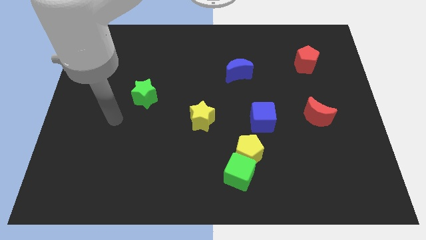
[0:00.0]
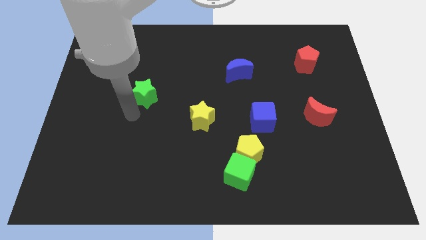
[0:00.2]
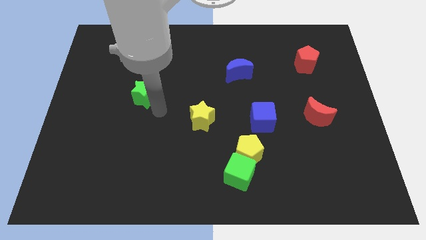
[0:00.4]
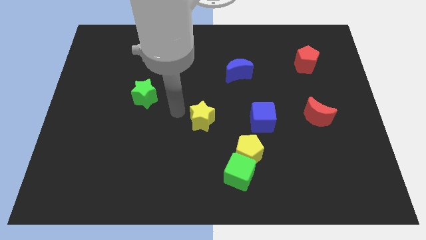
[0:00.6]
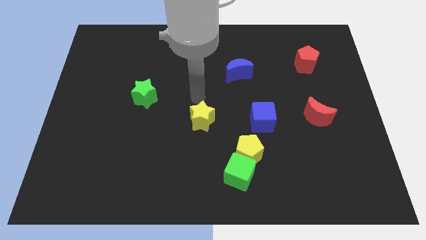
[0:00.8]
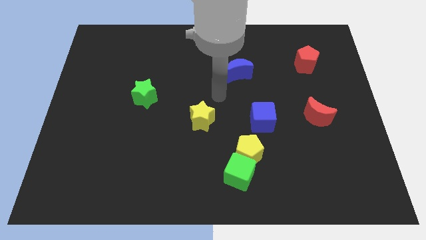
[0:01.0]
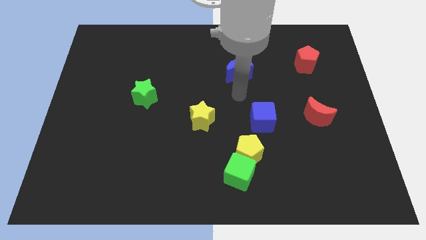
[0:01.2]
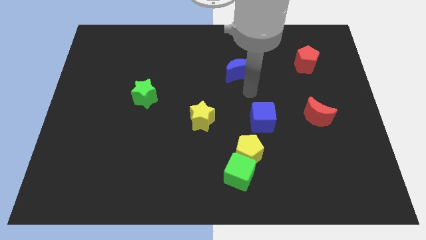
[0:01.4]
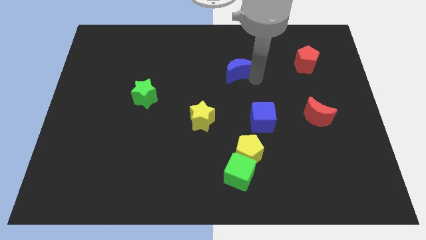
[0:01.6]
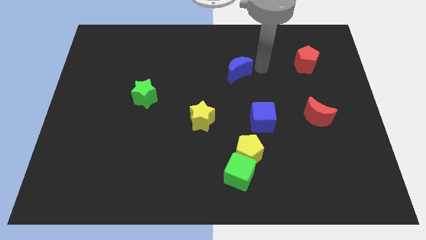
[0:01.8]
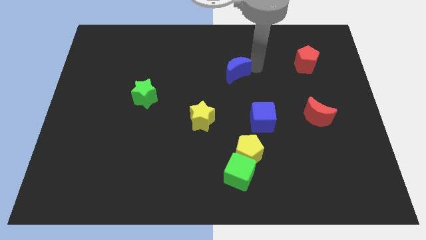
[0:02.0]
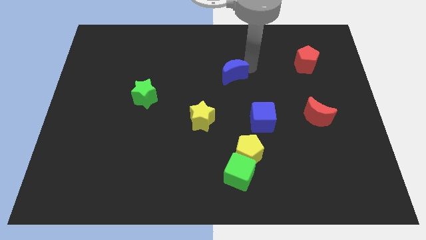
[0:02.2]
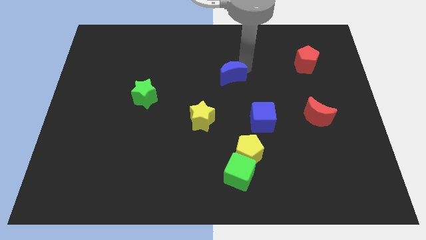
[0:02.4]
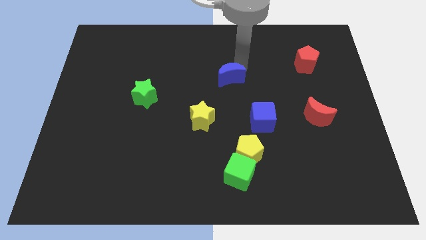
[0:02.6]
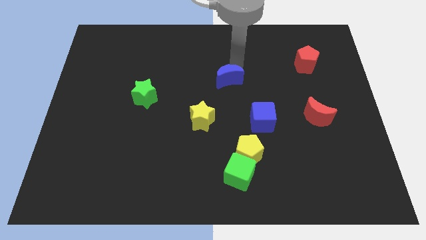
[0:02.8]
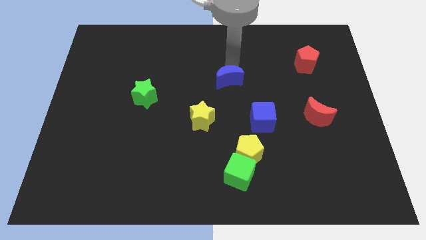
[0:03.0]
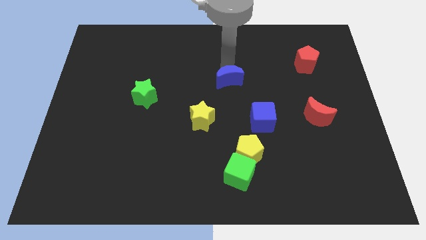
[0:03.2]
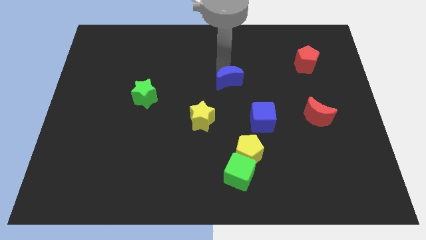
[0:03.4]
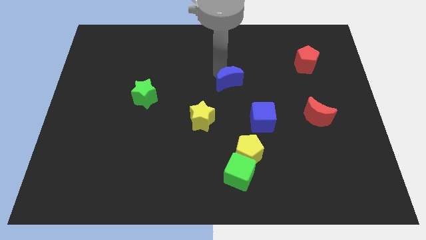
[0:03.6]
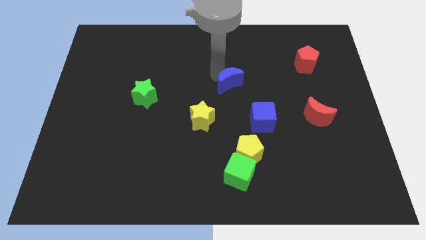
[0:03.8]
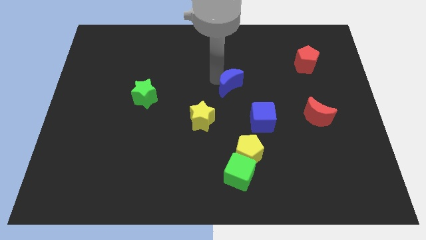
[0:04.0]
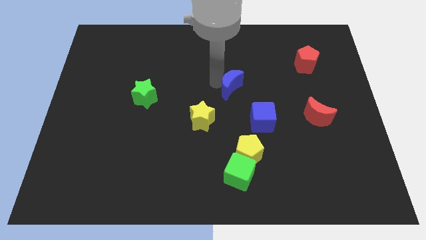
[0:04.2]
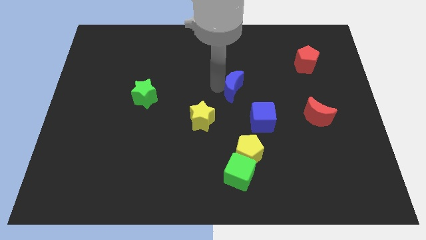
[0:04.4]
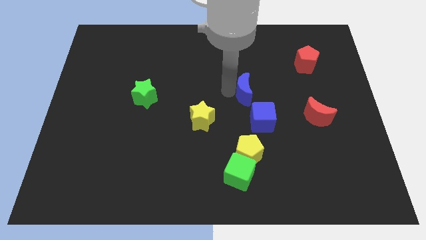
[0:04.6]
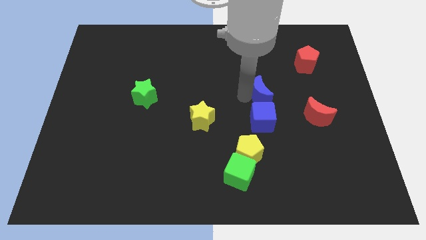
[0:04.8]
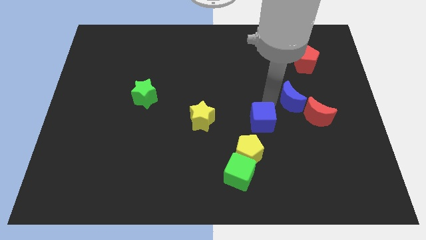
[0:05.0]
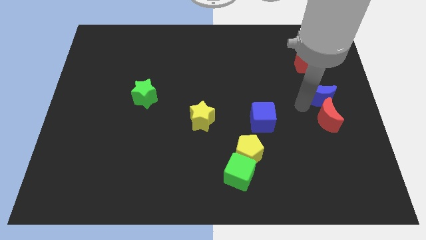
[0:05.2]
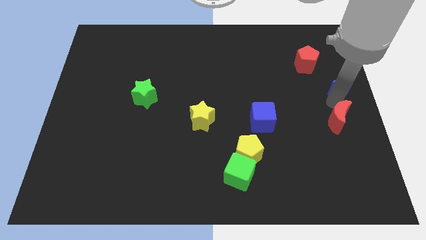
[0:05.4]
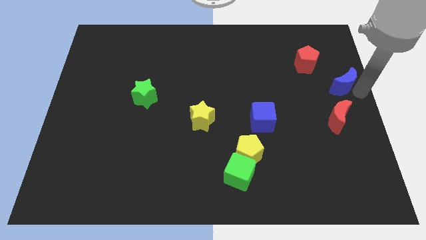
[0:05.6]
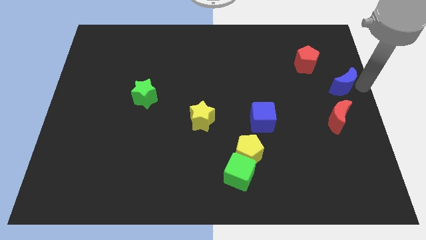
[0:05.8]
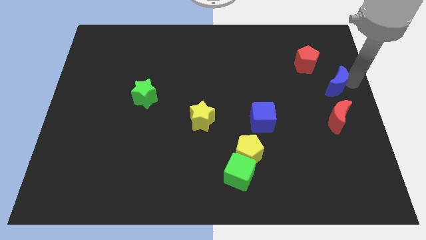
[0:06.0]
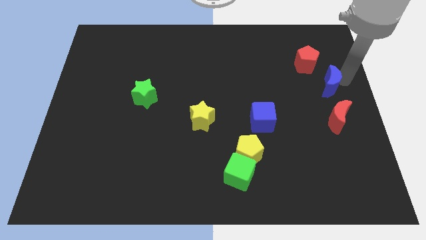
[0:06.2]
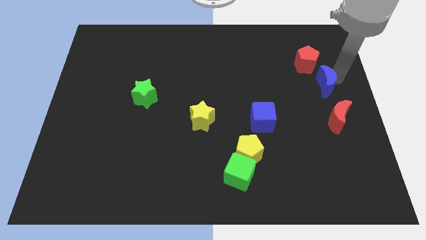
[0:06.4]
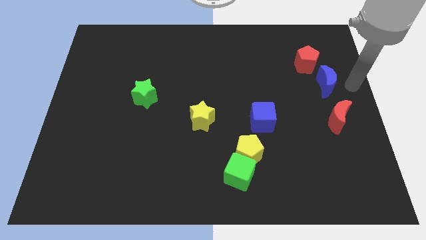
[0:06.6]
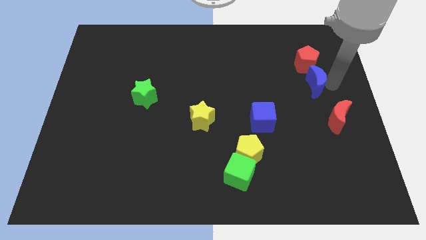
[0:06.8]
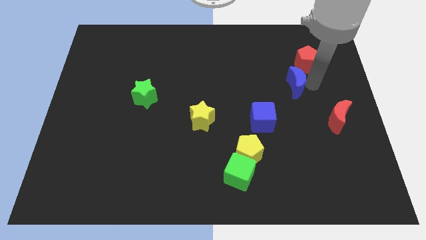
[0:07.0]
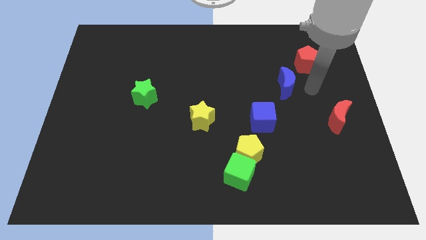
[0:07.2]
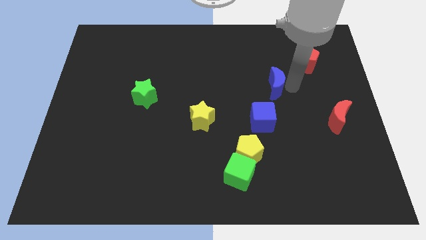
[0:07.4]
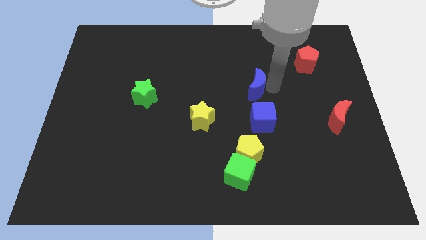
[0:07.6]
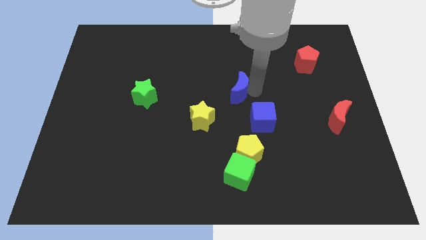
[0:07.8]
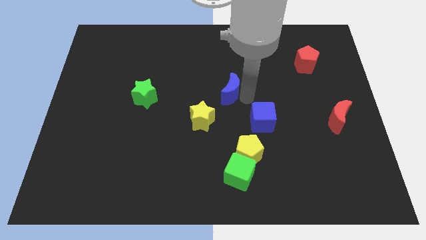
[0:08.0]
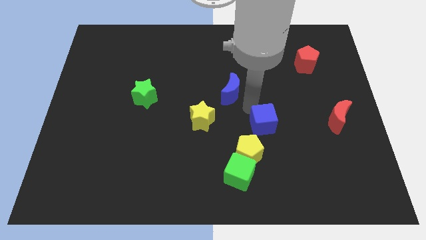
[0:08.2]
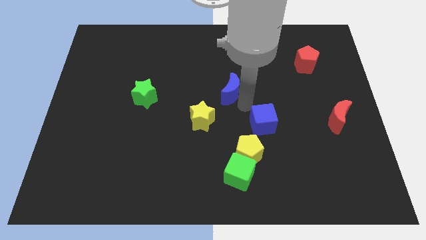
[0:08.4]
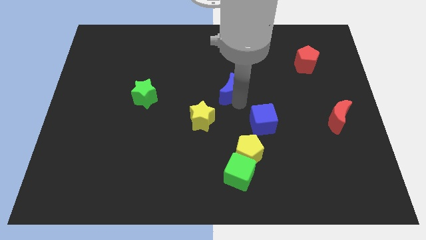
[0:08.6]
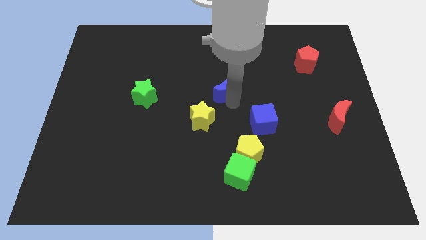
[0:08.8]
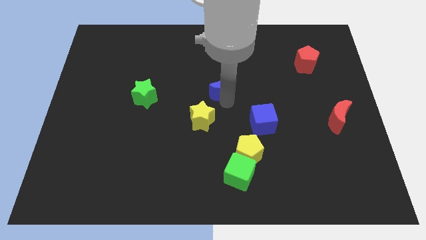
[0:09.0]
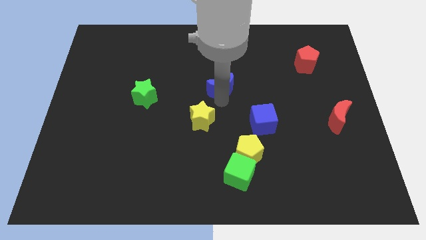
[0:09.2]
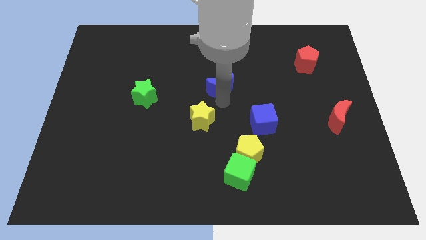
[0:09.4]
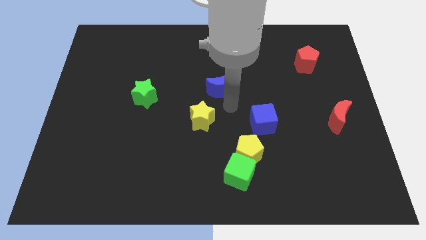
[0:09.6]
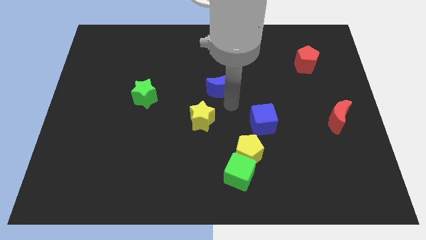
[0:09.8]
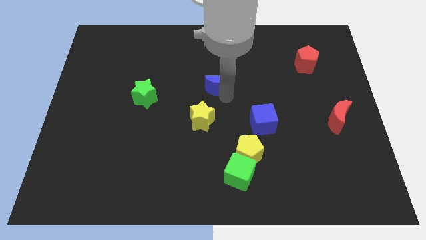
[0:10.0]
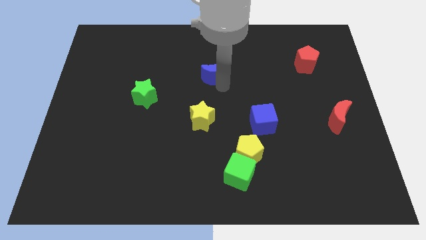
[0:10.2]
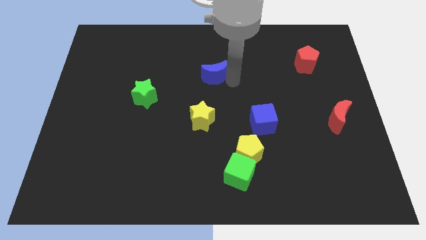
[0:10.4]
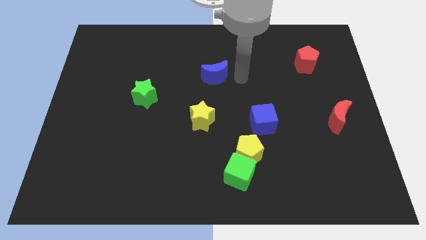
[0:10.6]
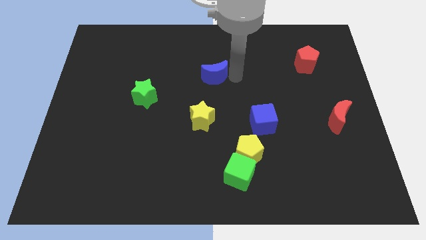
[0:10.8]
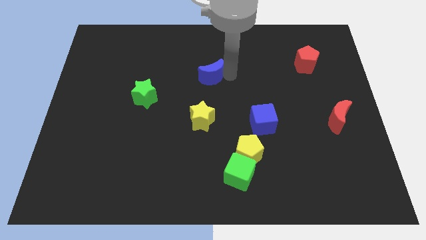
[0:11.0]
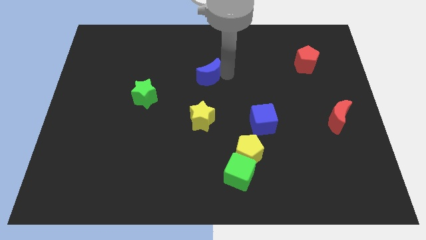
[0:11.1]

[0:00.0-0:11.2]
push the blue moon to the left a bit

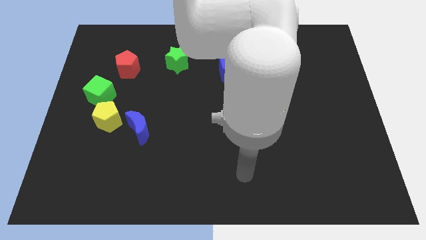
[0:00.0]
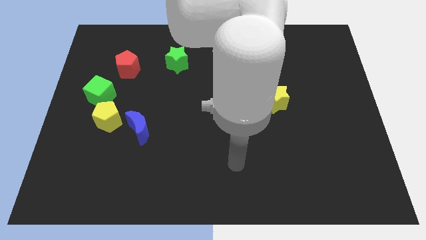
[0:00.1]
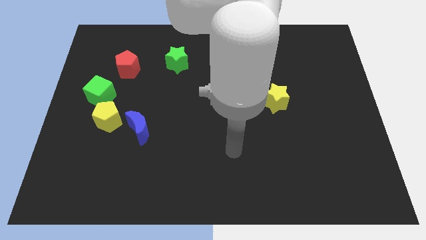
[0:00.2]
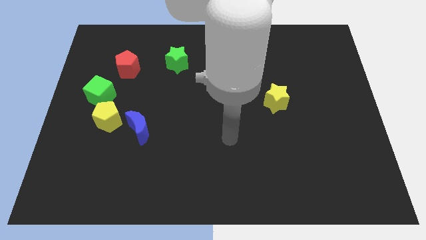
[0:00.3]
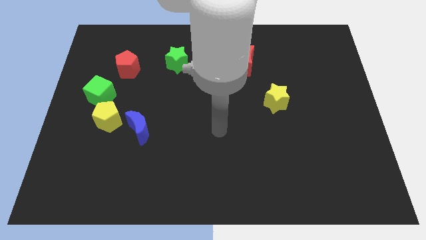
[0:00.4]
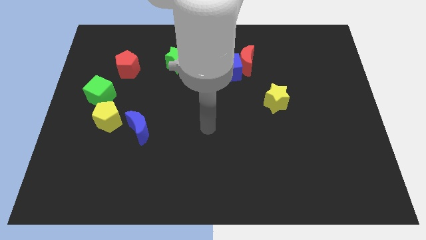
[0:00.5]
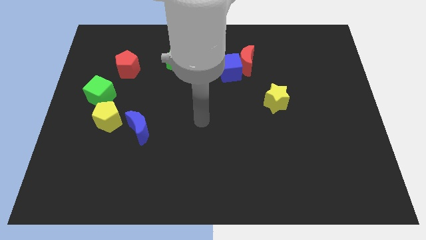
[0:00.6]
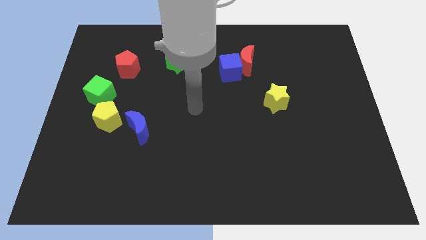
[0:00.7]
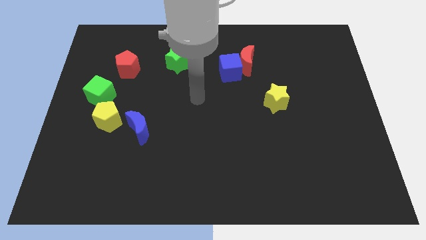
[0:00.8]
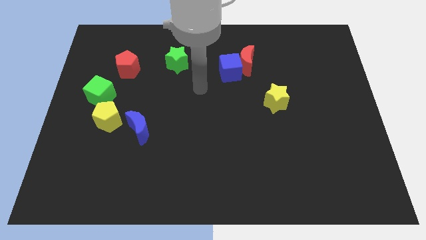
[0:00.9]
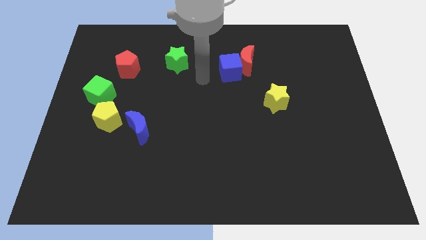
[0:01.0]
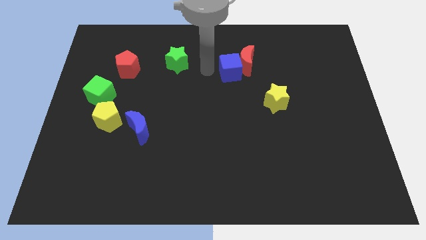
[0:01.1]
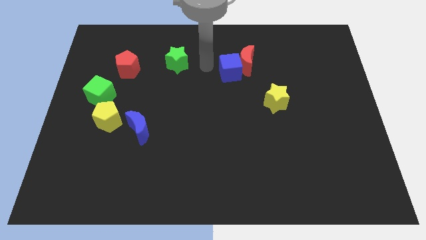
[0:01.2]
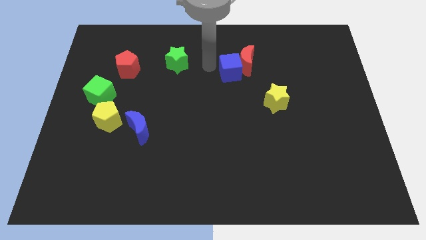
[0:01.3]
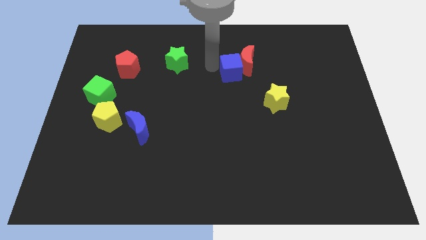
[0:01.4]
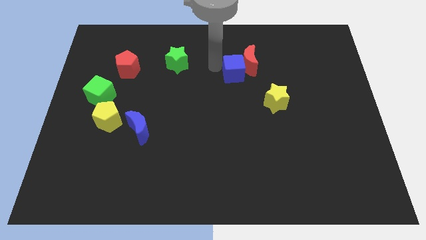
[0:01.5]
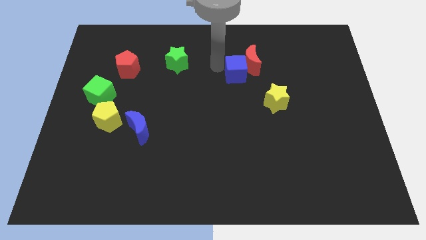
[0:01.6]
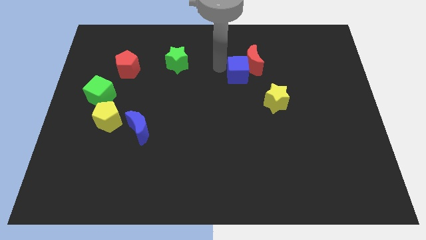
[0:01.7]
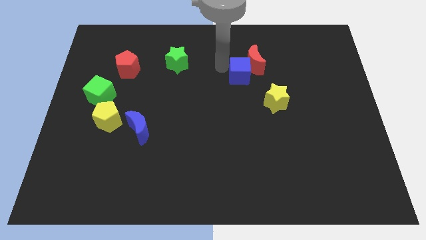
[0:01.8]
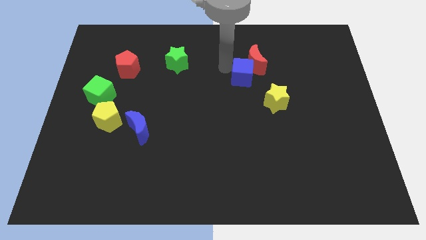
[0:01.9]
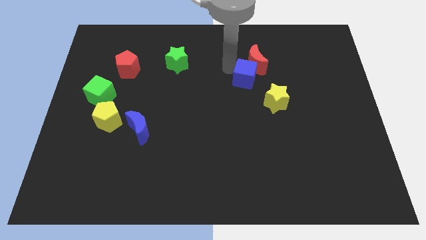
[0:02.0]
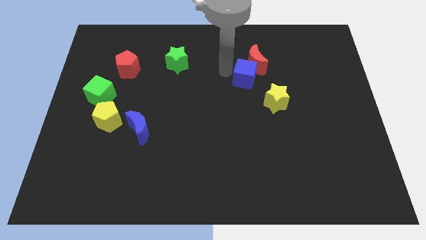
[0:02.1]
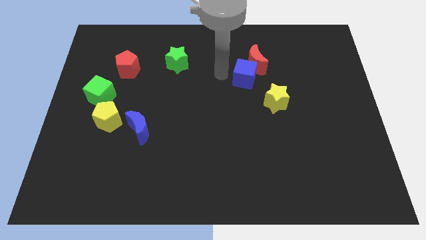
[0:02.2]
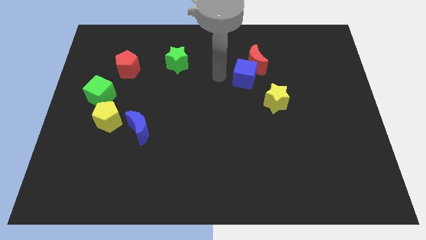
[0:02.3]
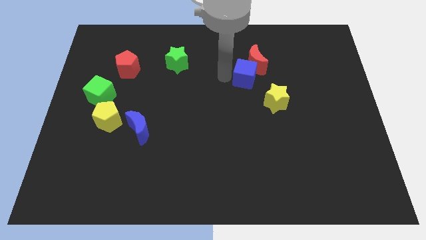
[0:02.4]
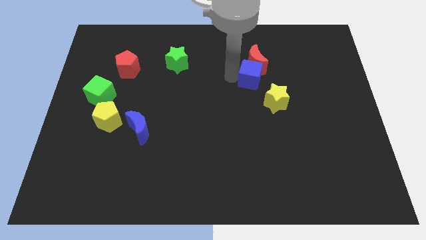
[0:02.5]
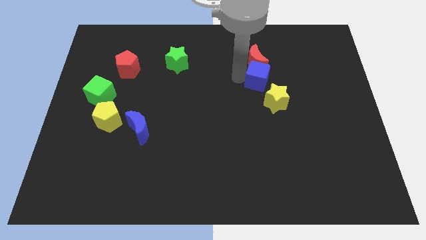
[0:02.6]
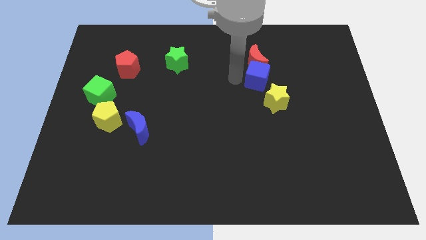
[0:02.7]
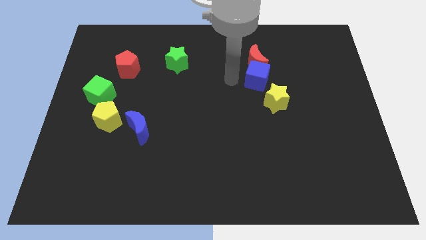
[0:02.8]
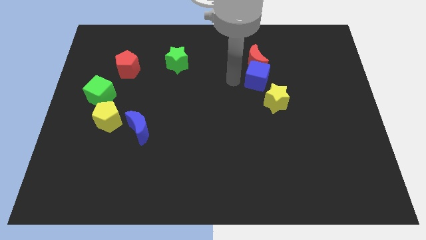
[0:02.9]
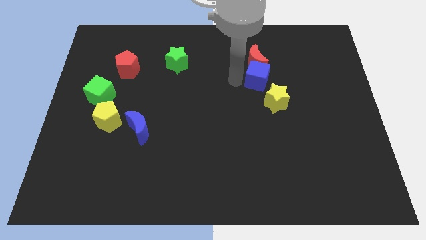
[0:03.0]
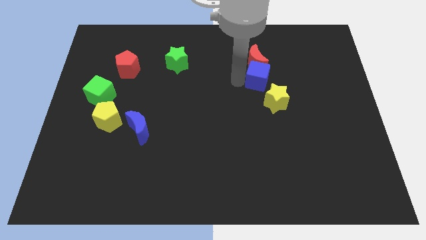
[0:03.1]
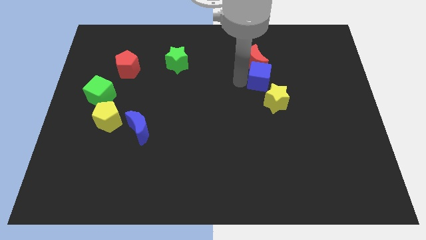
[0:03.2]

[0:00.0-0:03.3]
slightly move the blue cube right
